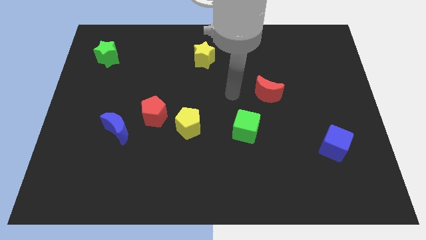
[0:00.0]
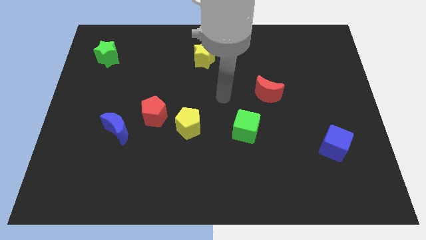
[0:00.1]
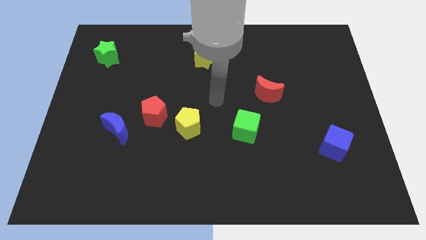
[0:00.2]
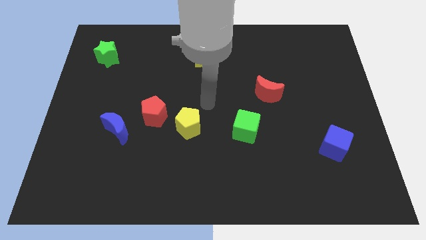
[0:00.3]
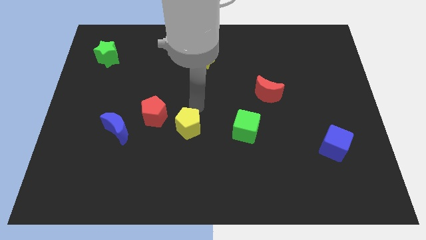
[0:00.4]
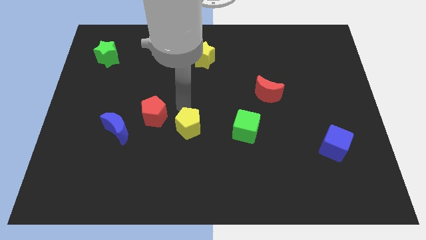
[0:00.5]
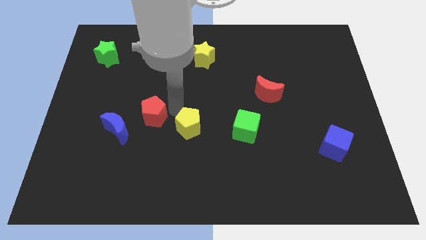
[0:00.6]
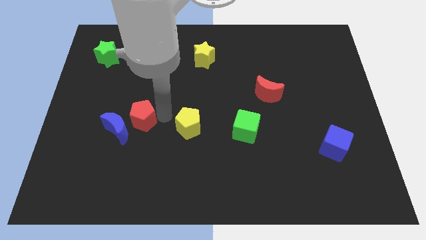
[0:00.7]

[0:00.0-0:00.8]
pull the yellow pentagon apart from the red pentagon

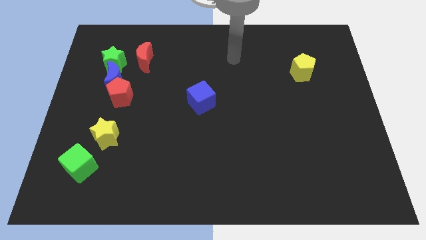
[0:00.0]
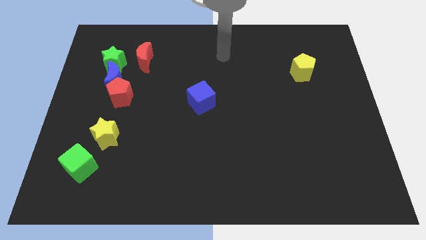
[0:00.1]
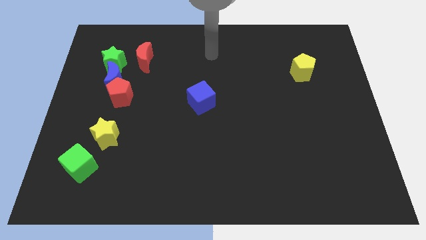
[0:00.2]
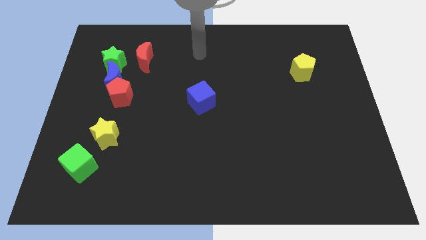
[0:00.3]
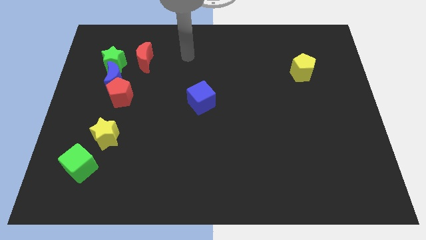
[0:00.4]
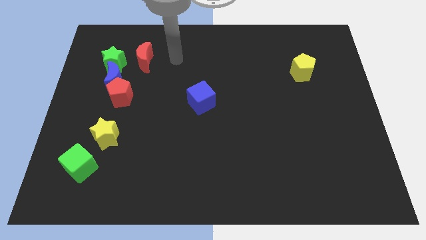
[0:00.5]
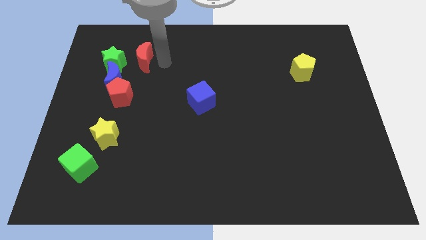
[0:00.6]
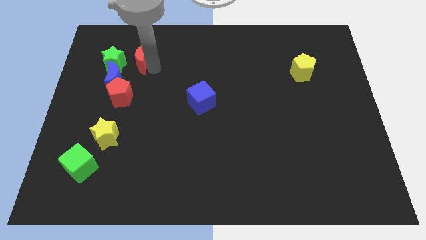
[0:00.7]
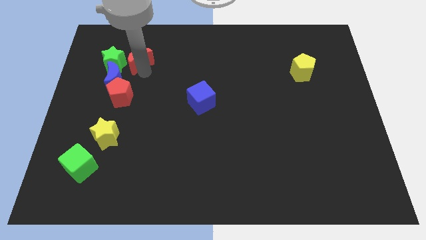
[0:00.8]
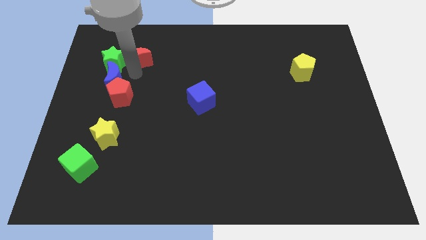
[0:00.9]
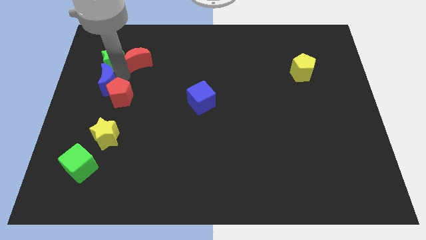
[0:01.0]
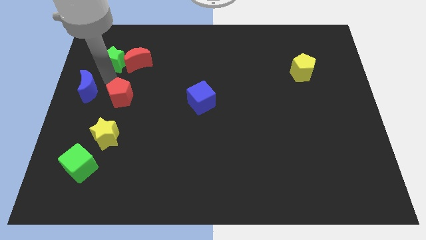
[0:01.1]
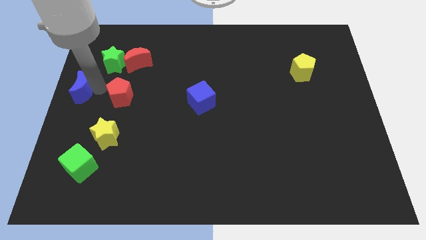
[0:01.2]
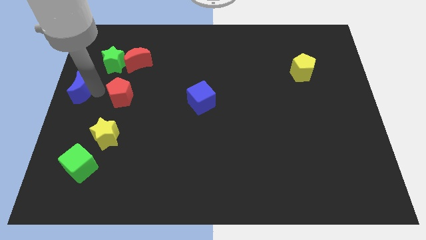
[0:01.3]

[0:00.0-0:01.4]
pull the red pentagon apart from the blue moon

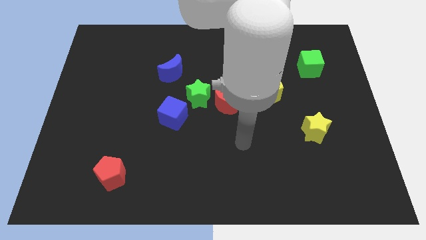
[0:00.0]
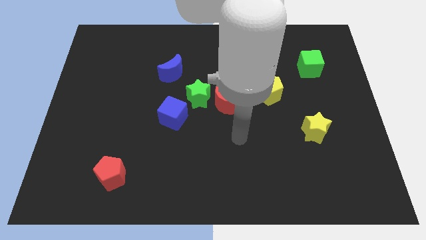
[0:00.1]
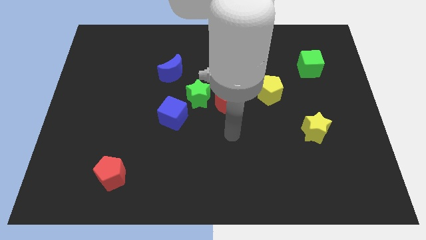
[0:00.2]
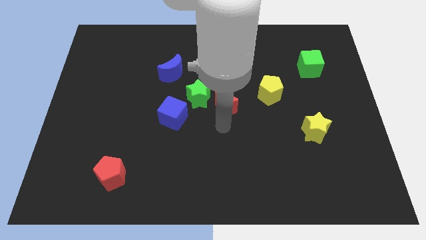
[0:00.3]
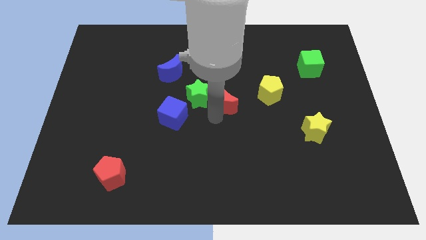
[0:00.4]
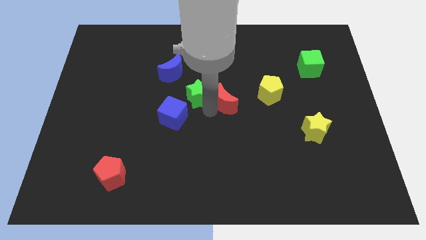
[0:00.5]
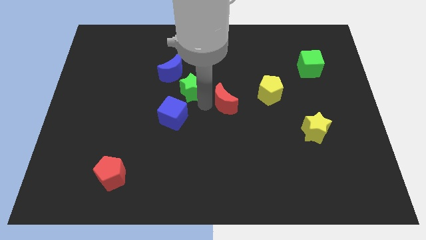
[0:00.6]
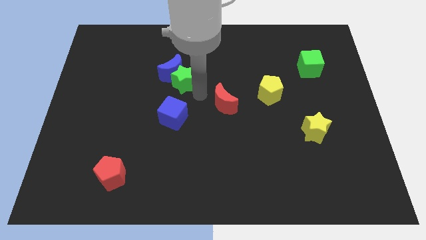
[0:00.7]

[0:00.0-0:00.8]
separate the red moon from the green star

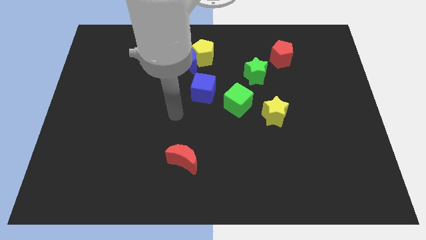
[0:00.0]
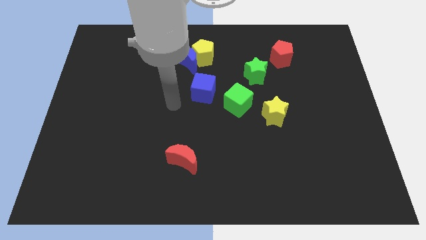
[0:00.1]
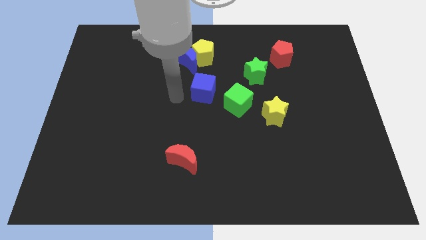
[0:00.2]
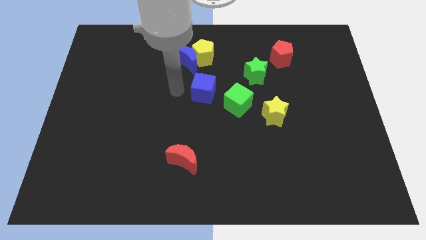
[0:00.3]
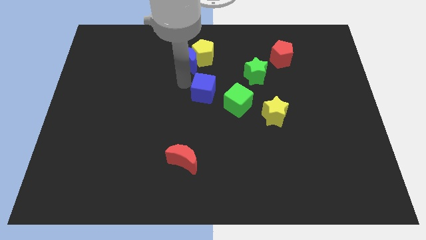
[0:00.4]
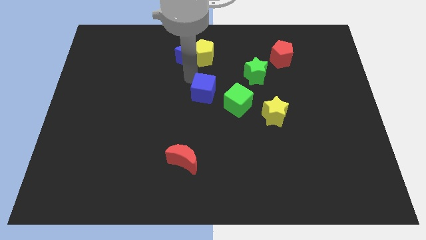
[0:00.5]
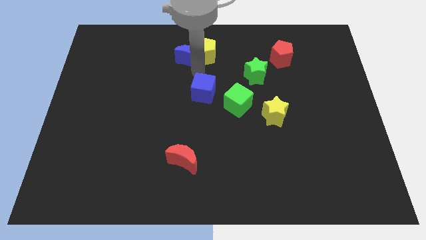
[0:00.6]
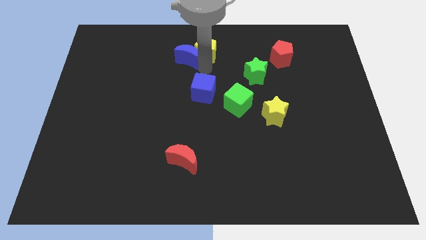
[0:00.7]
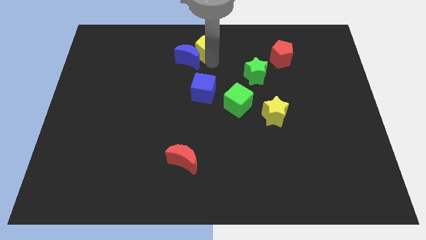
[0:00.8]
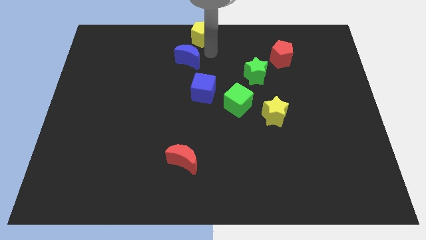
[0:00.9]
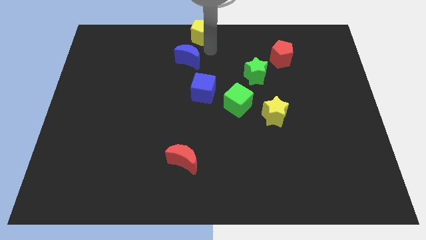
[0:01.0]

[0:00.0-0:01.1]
move the blue moon away from the yellow pentagon

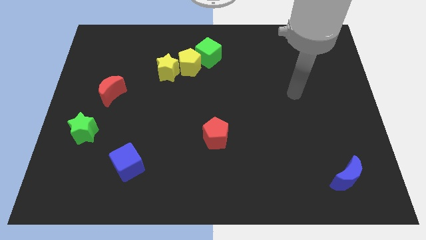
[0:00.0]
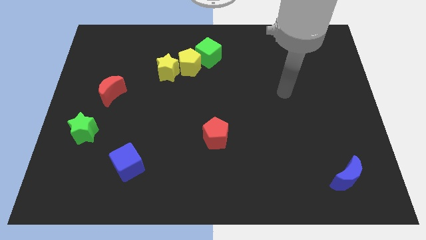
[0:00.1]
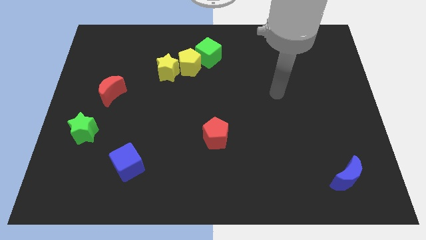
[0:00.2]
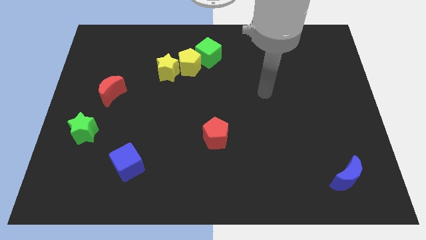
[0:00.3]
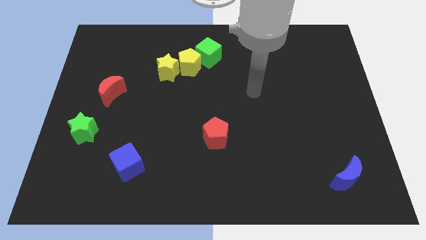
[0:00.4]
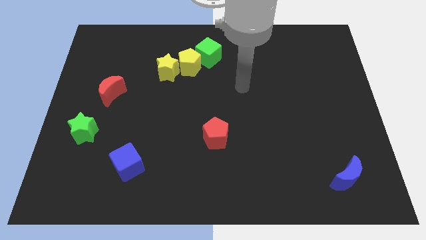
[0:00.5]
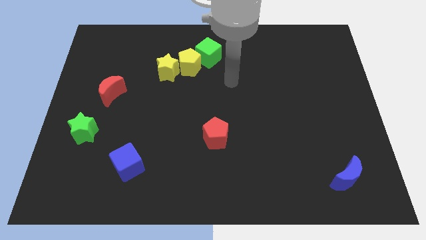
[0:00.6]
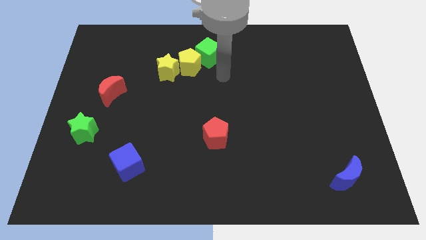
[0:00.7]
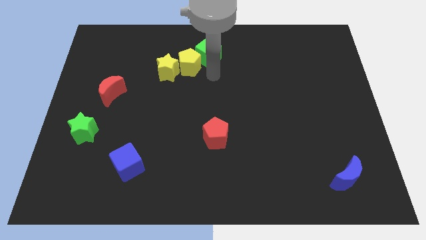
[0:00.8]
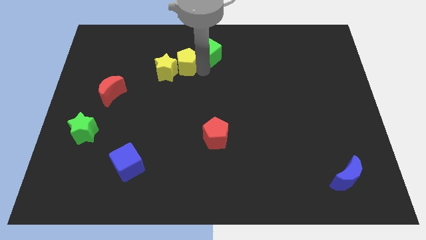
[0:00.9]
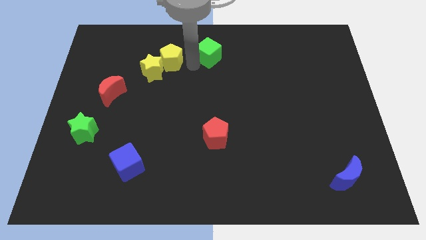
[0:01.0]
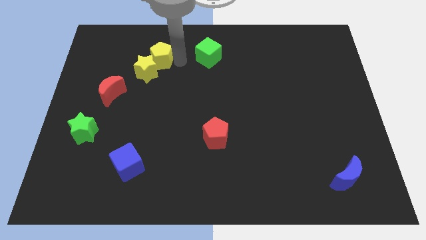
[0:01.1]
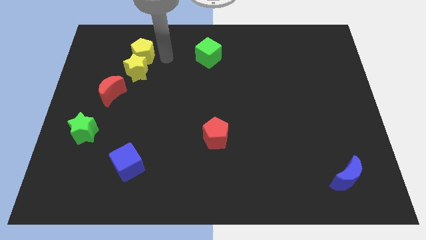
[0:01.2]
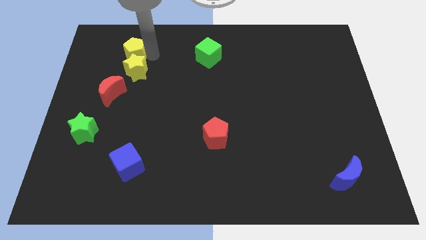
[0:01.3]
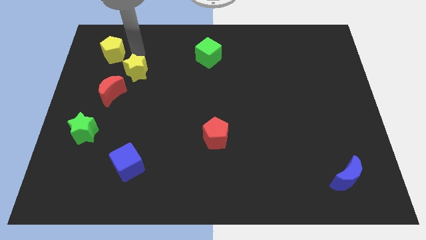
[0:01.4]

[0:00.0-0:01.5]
separate the yellow star from the yellow pentagon

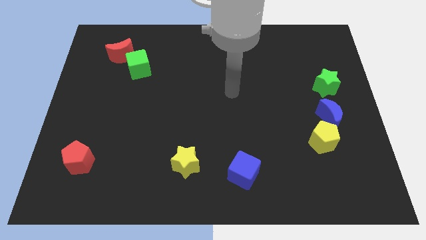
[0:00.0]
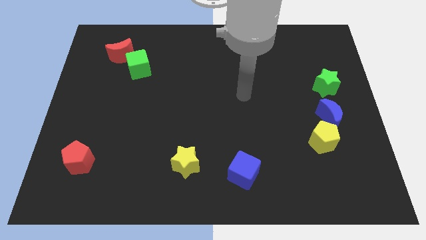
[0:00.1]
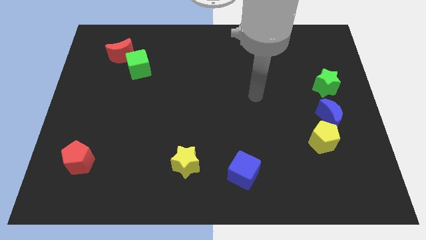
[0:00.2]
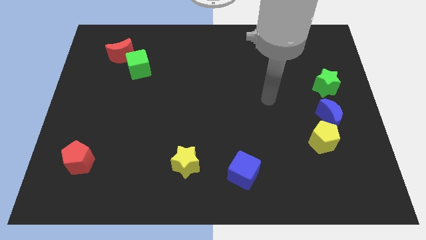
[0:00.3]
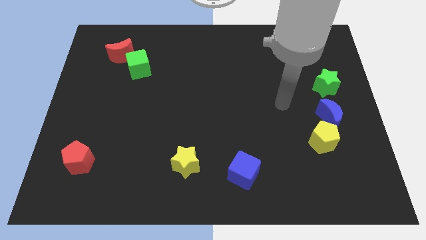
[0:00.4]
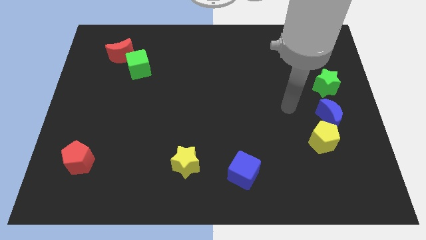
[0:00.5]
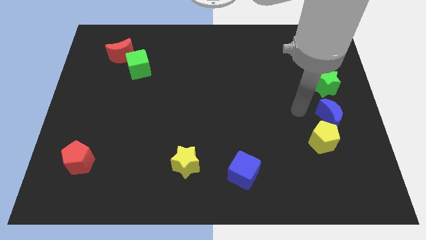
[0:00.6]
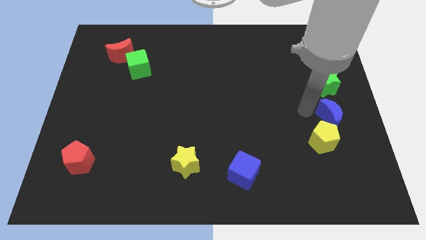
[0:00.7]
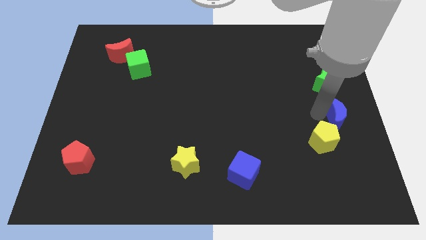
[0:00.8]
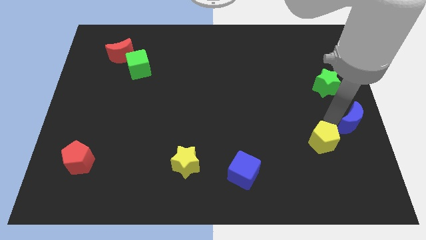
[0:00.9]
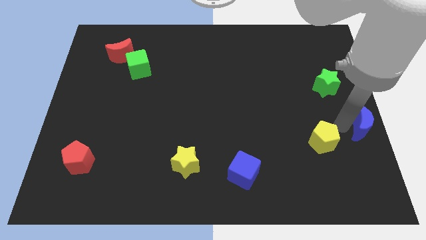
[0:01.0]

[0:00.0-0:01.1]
move the yellow pentagon away from the blue moon

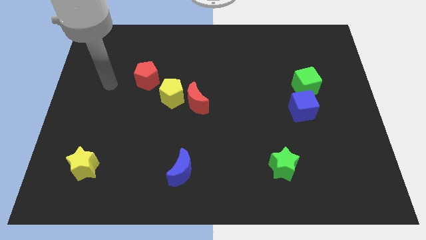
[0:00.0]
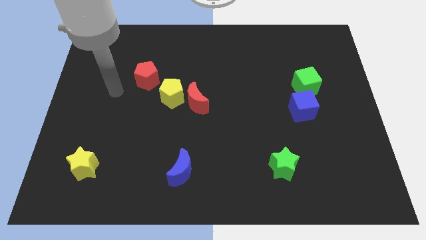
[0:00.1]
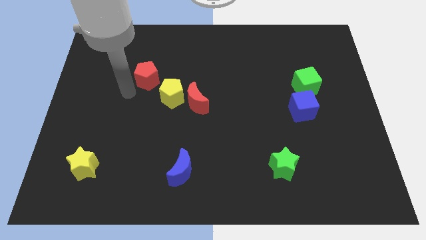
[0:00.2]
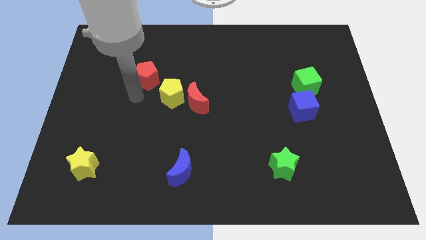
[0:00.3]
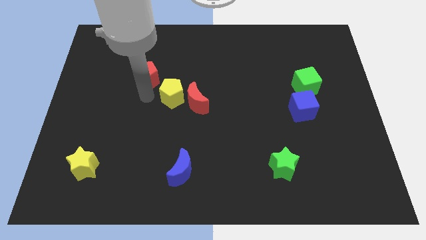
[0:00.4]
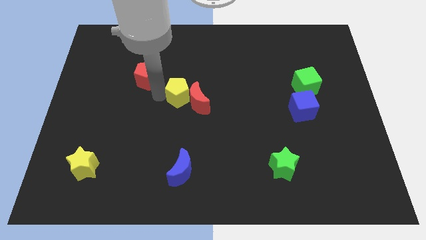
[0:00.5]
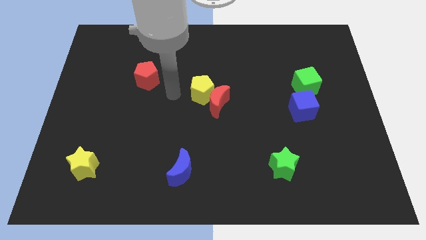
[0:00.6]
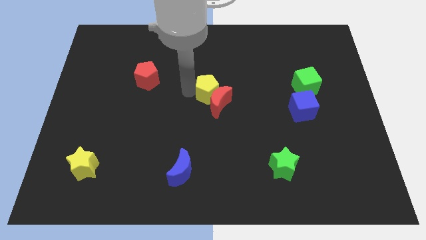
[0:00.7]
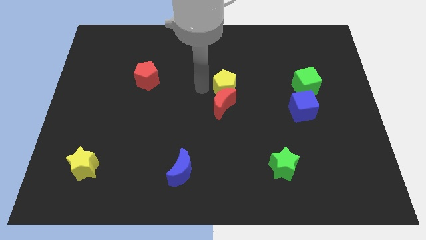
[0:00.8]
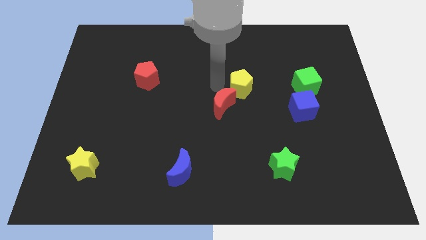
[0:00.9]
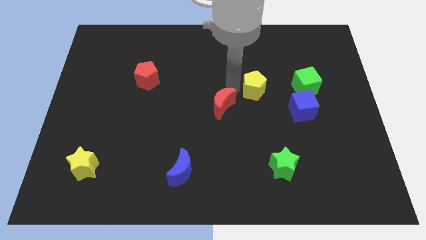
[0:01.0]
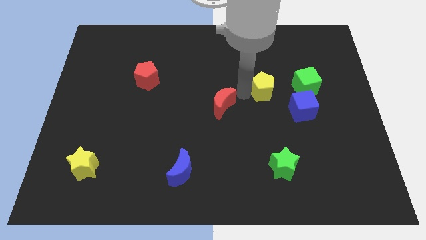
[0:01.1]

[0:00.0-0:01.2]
pull the red moon apart from the yellow pentagon

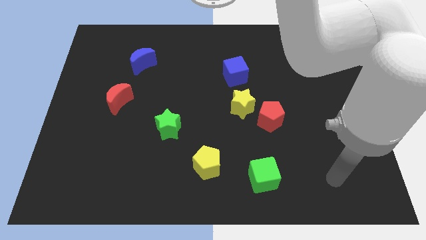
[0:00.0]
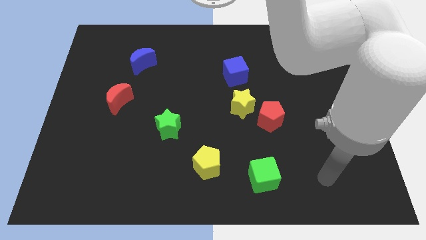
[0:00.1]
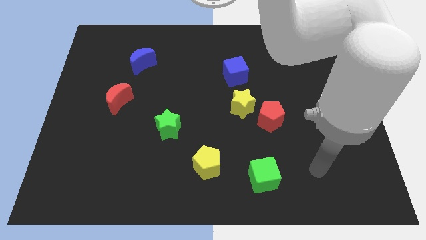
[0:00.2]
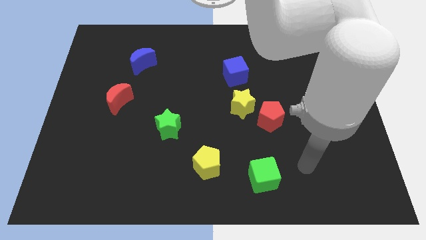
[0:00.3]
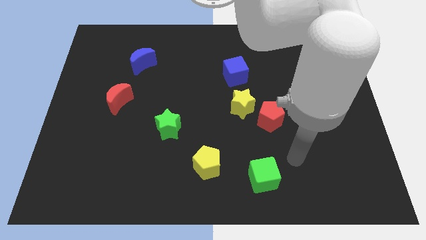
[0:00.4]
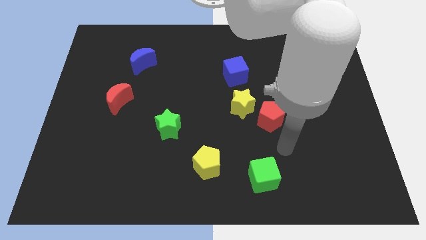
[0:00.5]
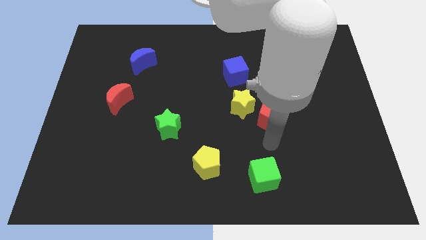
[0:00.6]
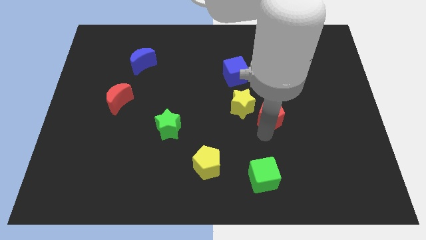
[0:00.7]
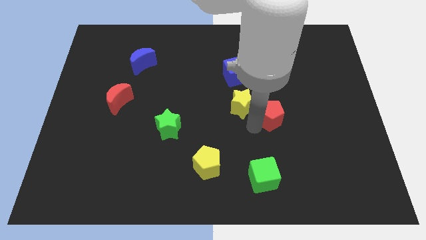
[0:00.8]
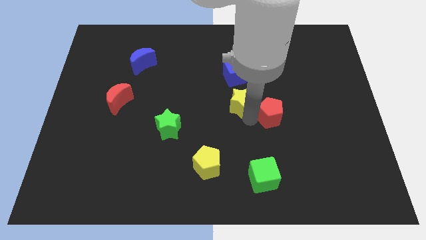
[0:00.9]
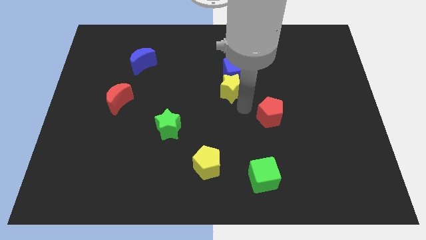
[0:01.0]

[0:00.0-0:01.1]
move the red pentagon away from the yellow star

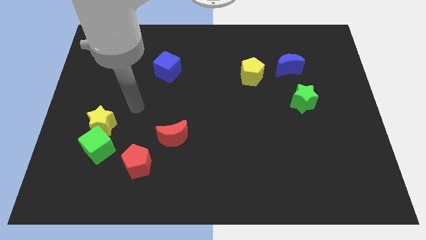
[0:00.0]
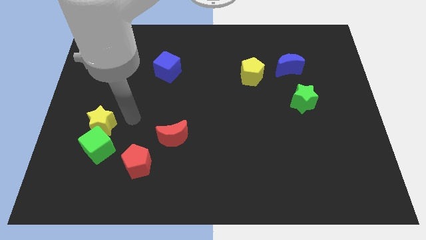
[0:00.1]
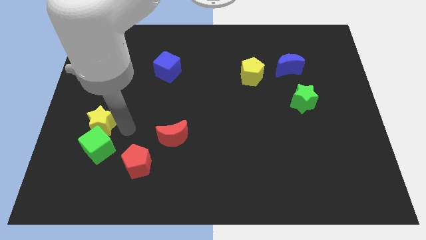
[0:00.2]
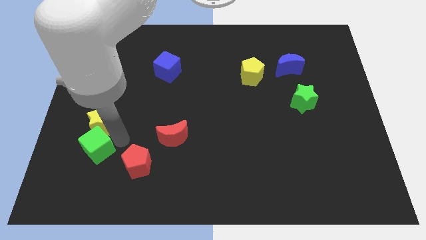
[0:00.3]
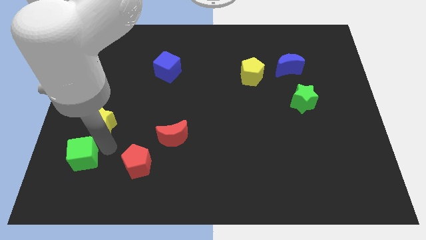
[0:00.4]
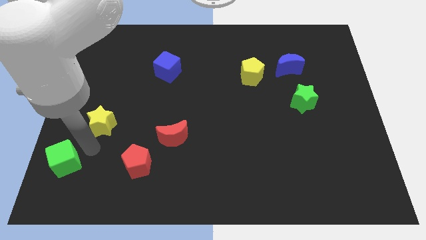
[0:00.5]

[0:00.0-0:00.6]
separate the yellow star from the green cube
